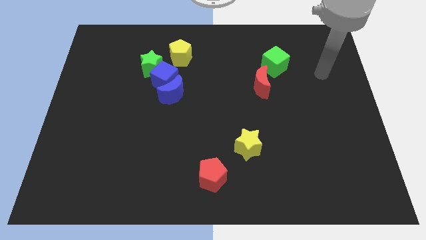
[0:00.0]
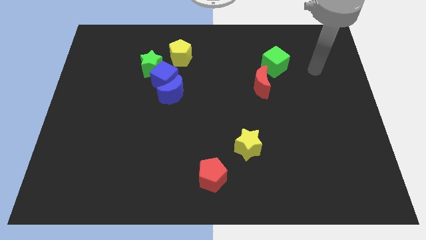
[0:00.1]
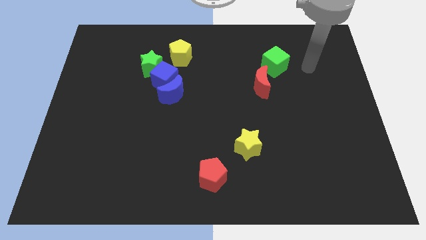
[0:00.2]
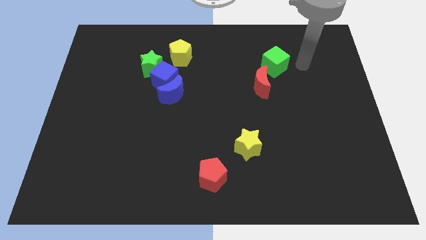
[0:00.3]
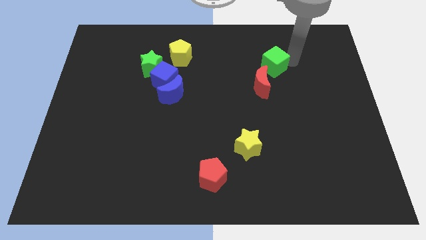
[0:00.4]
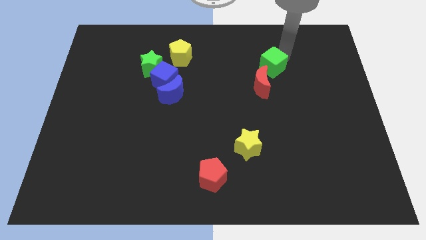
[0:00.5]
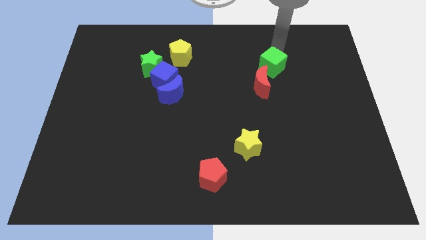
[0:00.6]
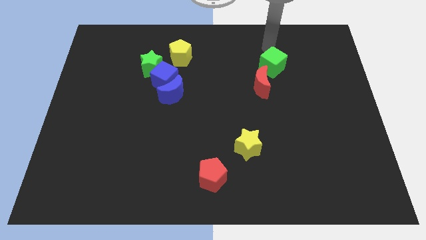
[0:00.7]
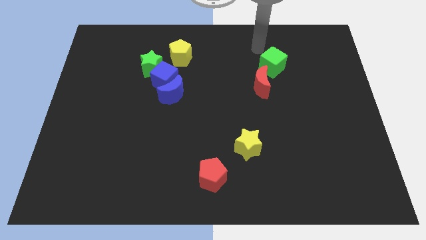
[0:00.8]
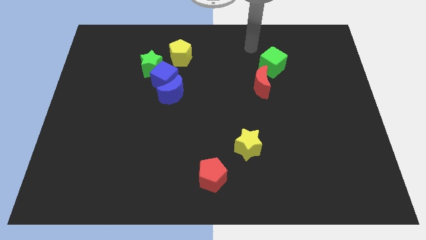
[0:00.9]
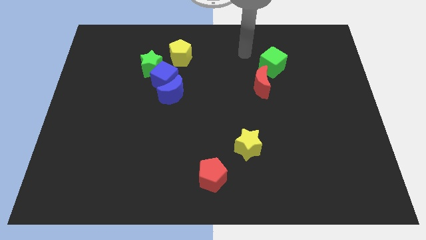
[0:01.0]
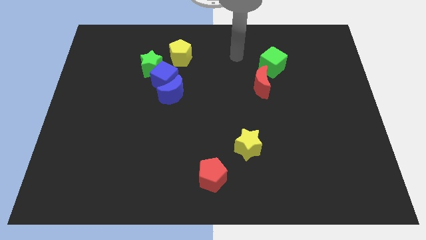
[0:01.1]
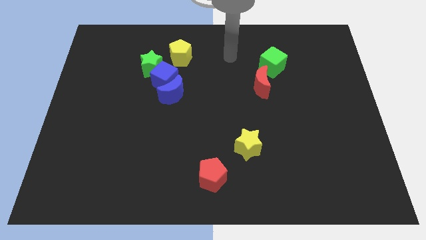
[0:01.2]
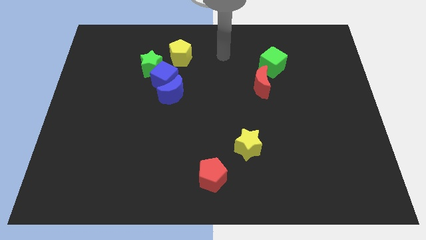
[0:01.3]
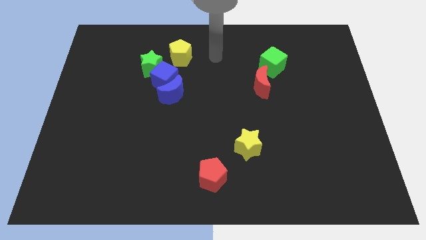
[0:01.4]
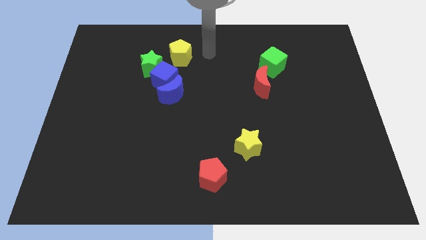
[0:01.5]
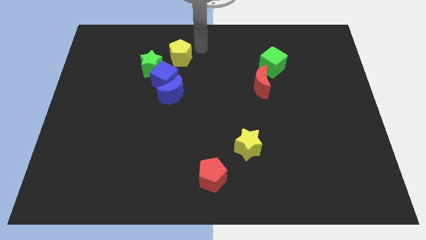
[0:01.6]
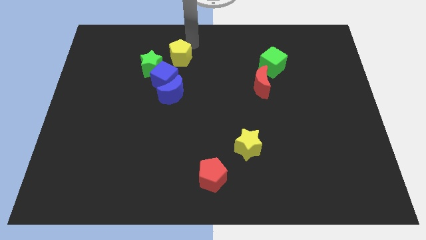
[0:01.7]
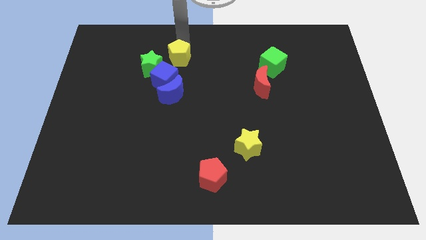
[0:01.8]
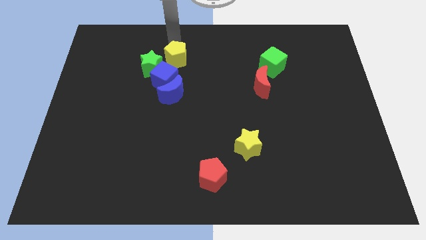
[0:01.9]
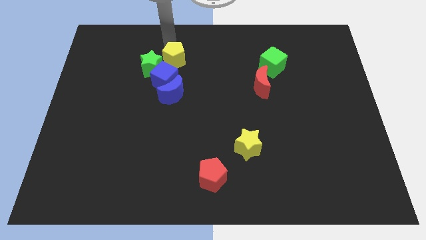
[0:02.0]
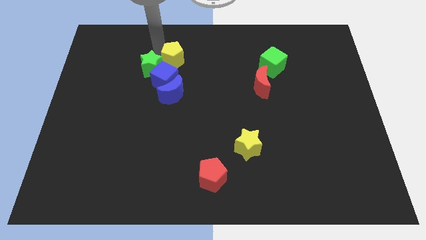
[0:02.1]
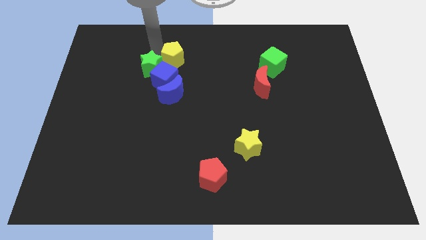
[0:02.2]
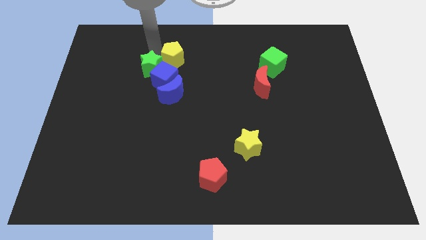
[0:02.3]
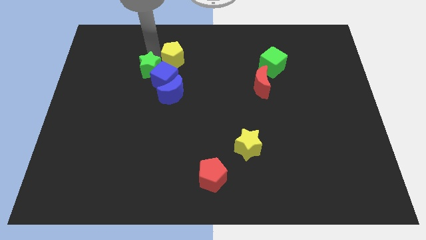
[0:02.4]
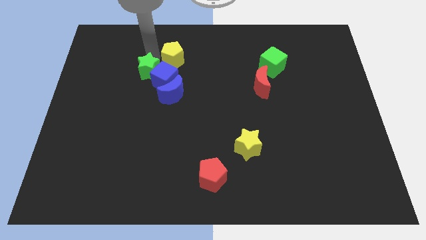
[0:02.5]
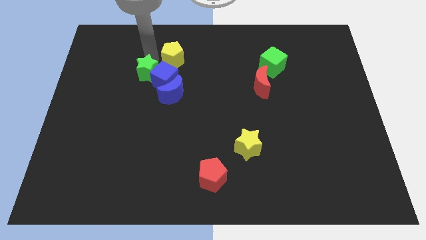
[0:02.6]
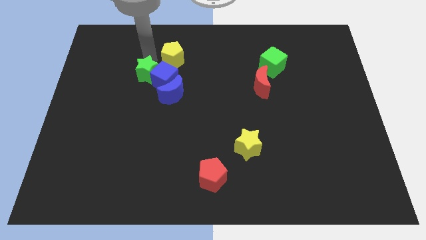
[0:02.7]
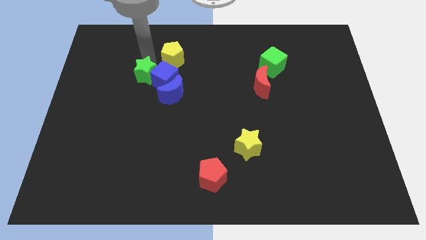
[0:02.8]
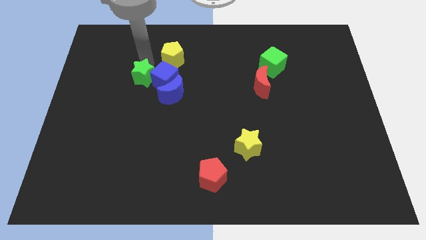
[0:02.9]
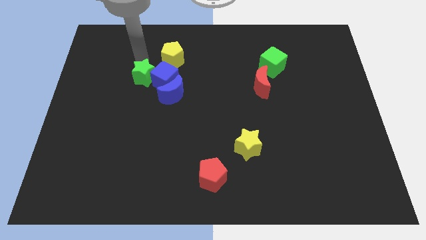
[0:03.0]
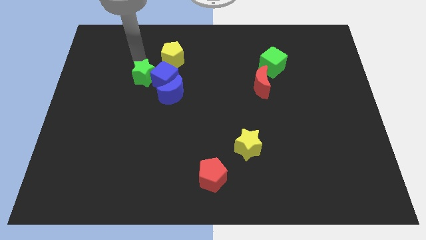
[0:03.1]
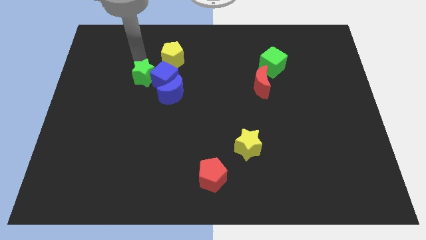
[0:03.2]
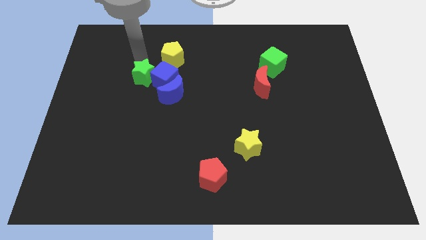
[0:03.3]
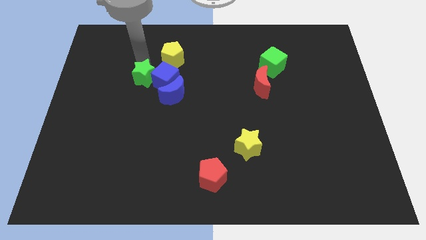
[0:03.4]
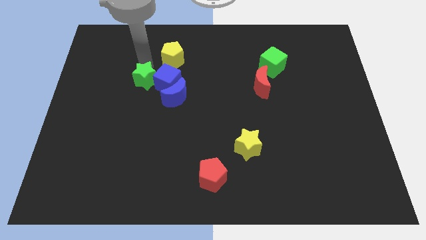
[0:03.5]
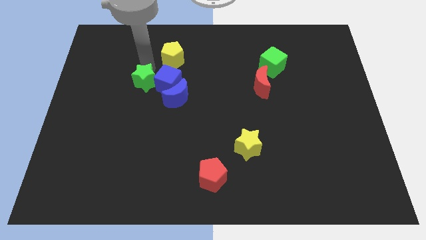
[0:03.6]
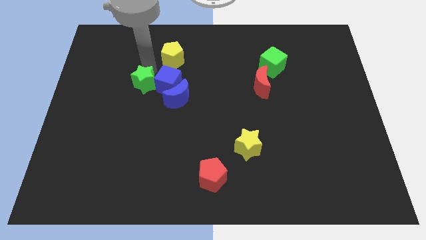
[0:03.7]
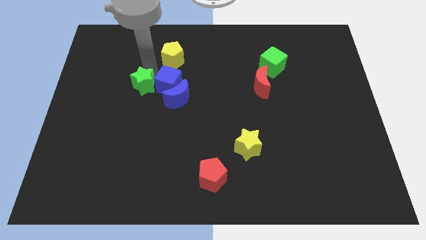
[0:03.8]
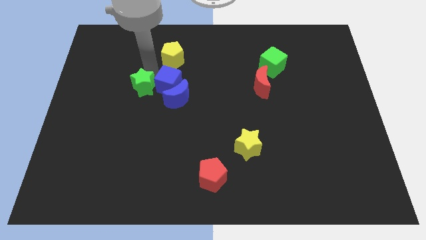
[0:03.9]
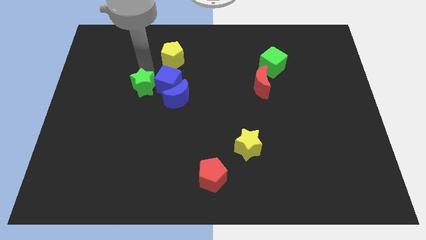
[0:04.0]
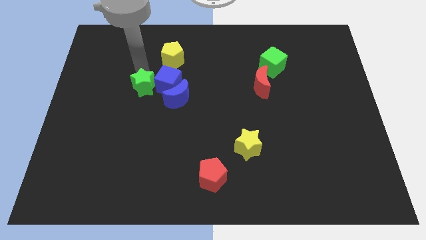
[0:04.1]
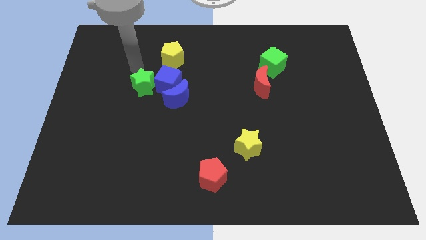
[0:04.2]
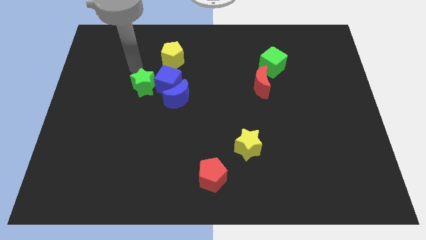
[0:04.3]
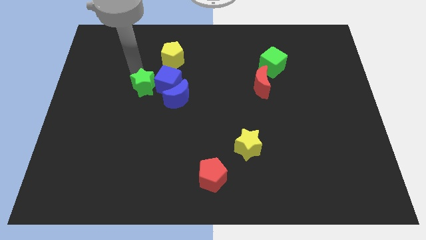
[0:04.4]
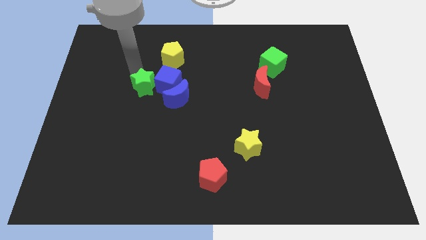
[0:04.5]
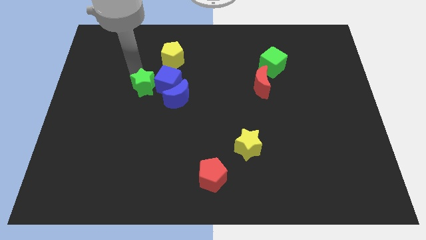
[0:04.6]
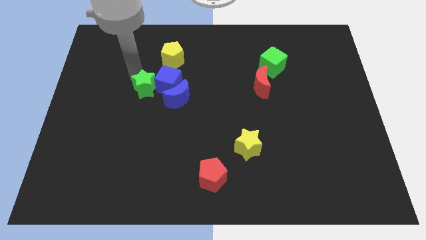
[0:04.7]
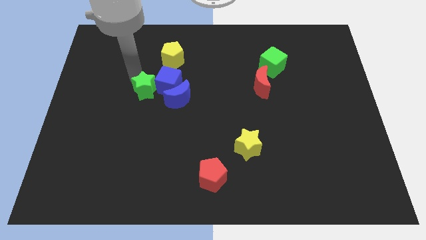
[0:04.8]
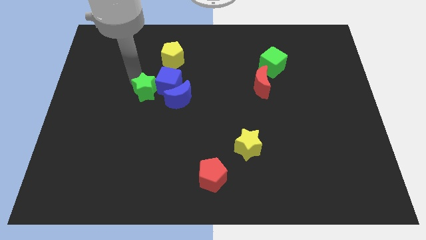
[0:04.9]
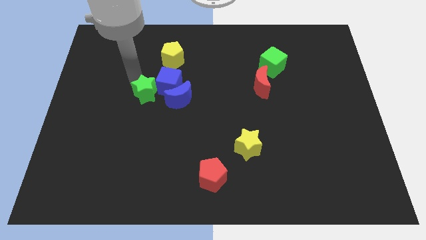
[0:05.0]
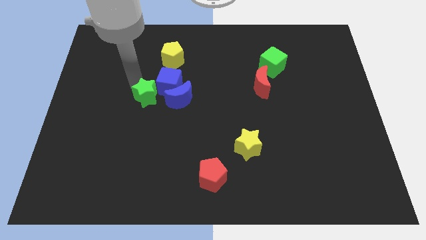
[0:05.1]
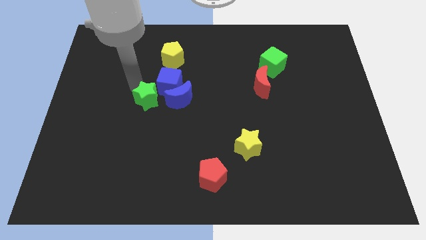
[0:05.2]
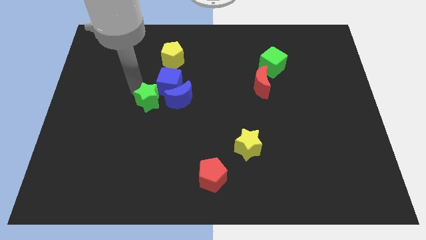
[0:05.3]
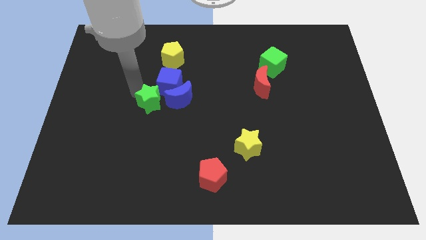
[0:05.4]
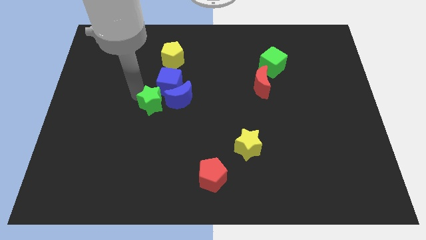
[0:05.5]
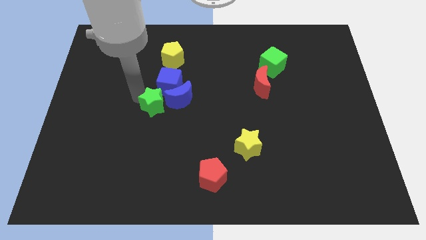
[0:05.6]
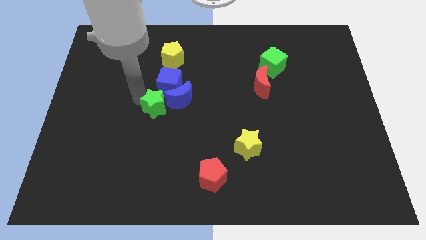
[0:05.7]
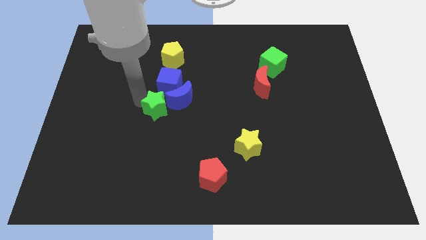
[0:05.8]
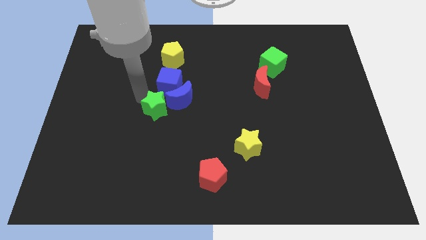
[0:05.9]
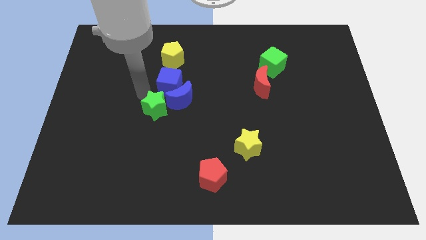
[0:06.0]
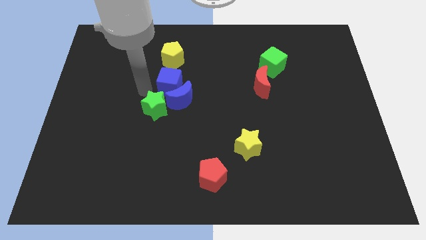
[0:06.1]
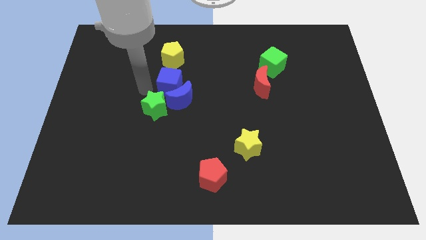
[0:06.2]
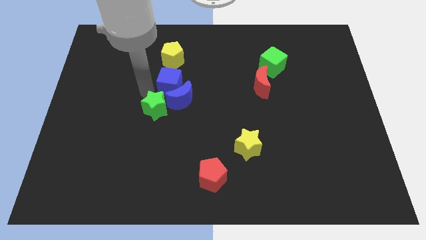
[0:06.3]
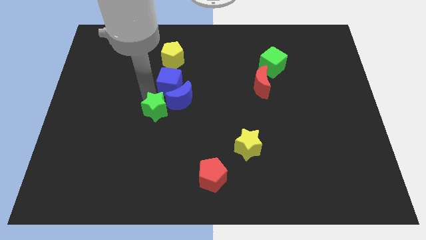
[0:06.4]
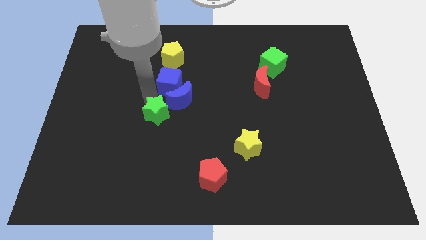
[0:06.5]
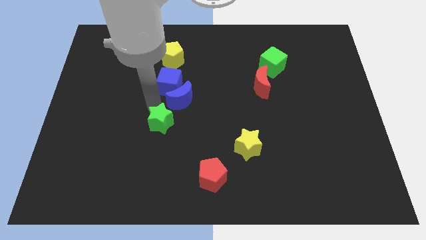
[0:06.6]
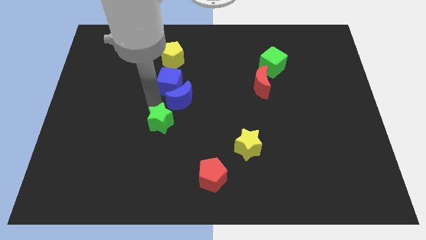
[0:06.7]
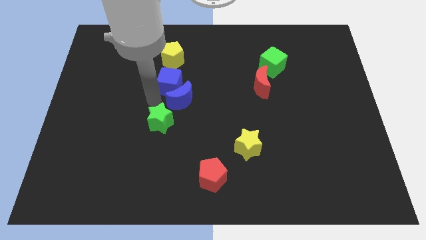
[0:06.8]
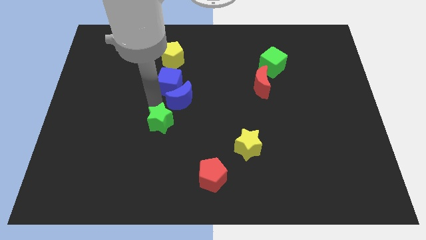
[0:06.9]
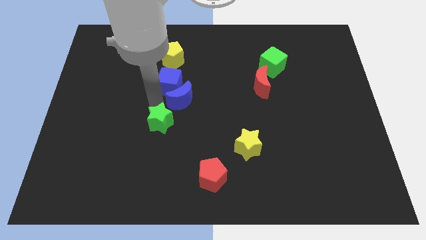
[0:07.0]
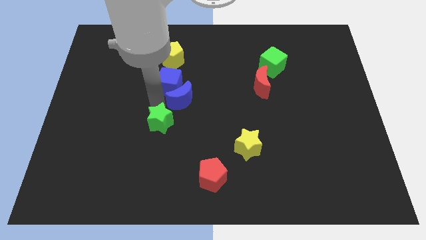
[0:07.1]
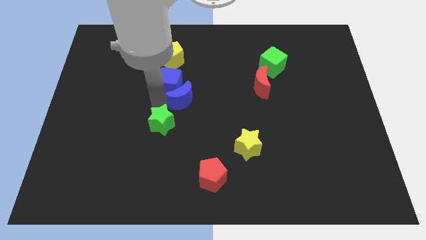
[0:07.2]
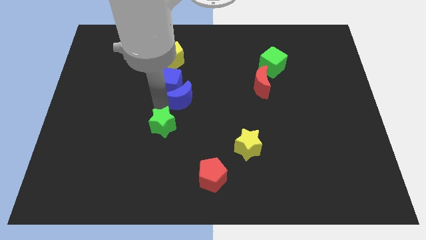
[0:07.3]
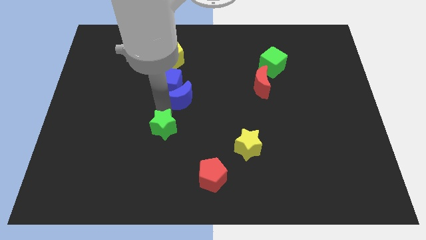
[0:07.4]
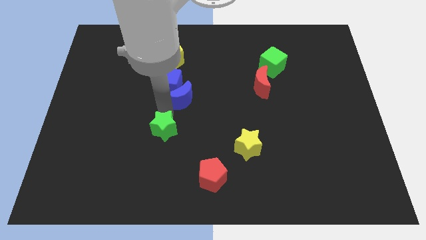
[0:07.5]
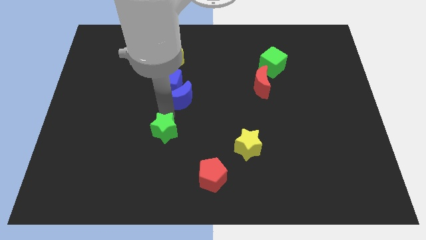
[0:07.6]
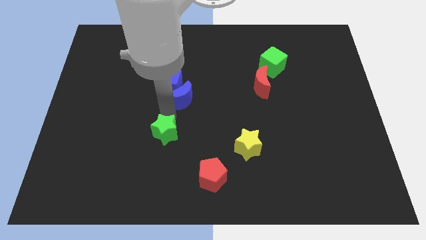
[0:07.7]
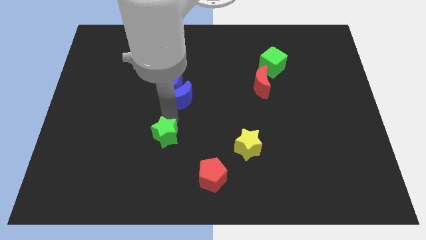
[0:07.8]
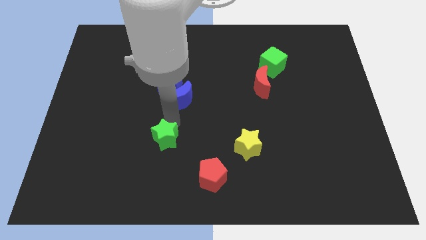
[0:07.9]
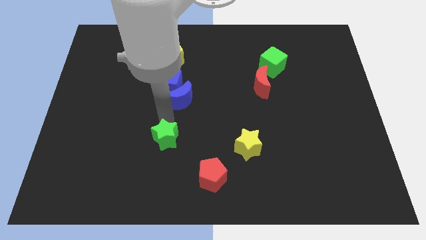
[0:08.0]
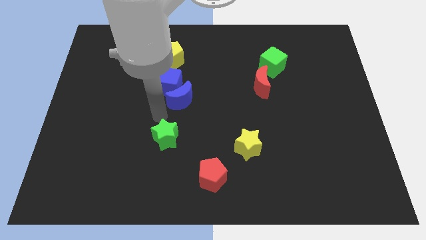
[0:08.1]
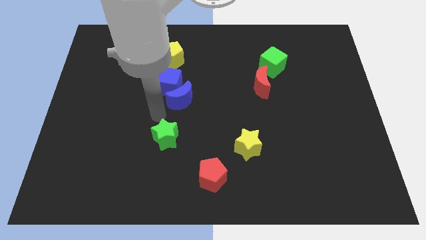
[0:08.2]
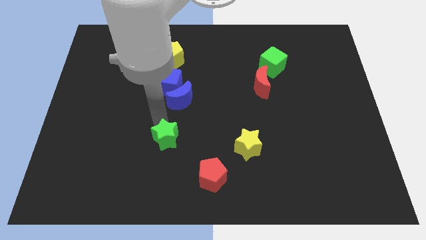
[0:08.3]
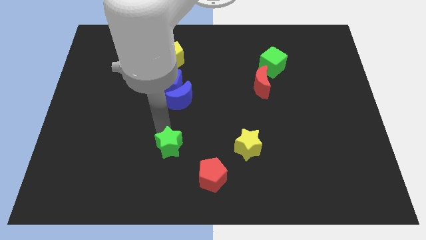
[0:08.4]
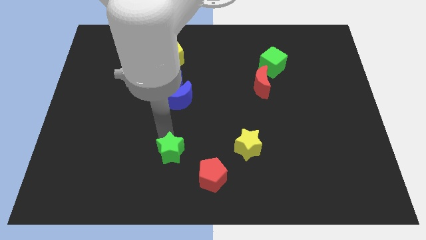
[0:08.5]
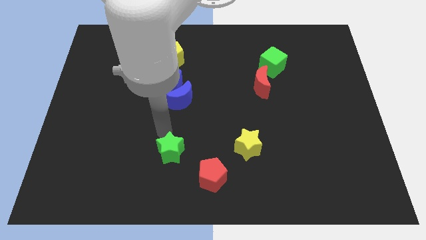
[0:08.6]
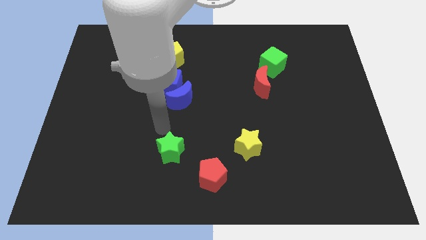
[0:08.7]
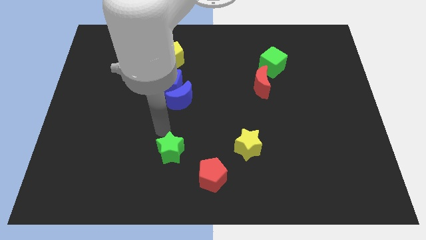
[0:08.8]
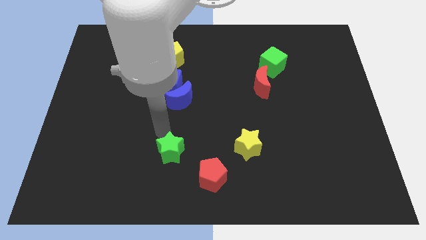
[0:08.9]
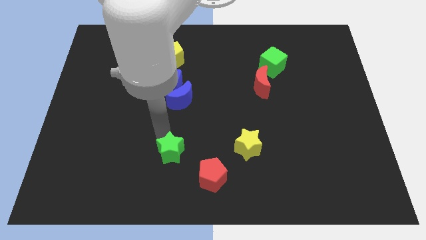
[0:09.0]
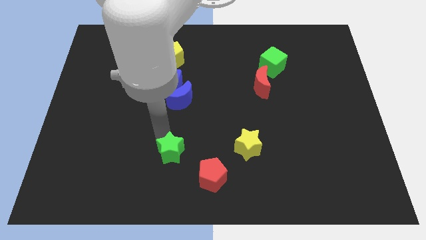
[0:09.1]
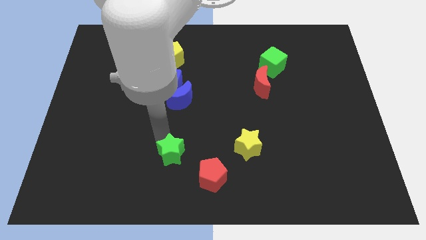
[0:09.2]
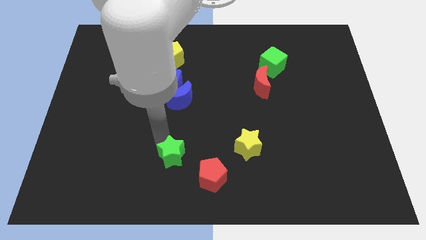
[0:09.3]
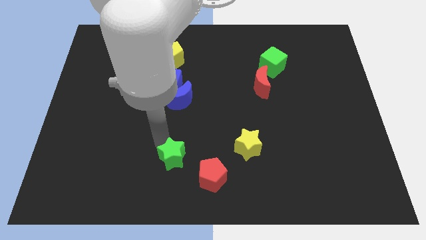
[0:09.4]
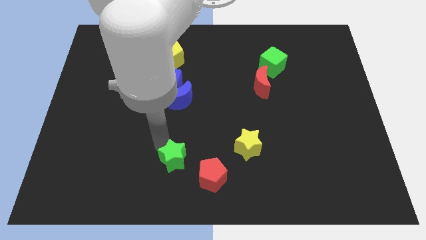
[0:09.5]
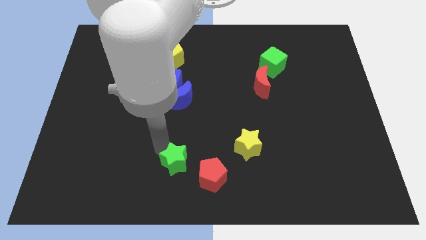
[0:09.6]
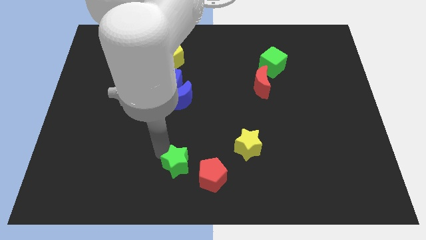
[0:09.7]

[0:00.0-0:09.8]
slide the green star to the bottom side
